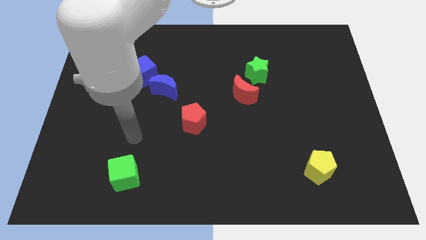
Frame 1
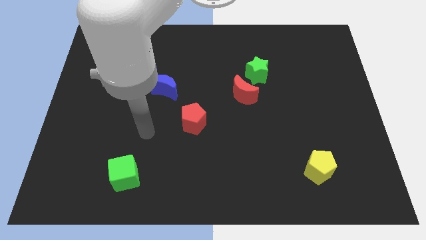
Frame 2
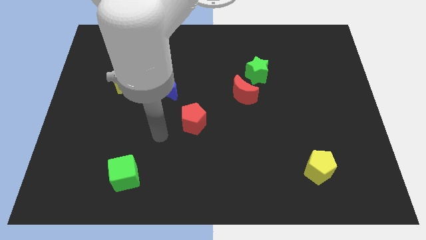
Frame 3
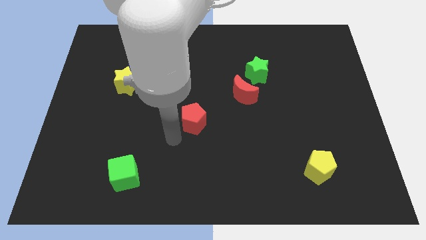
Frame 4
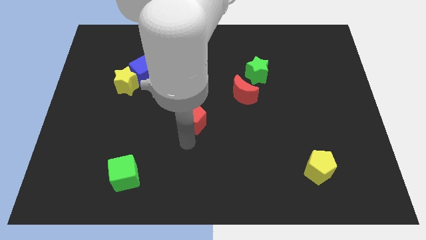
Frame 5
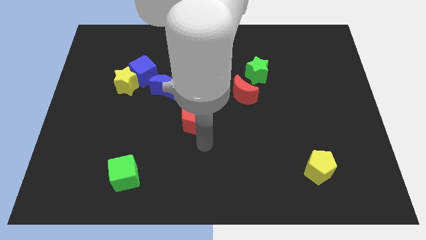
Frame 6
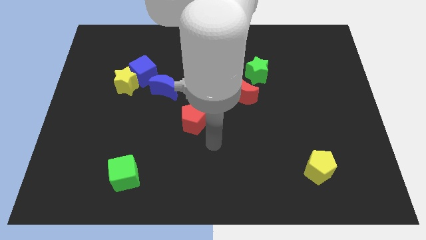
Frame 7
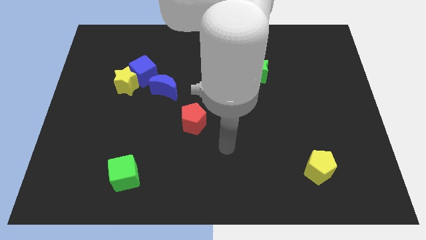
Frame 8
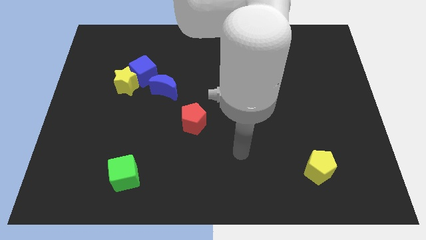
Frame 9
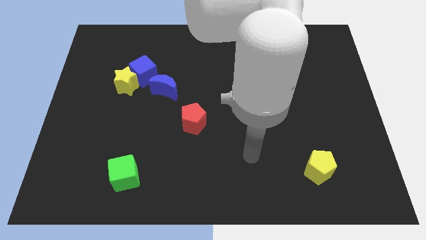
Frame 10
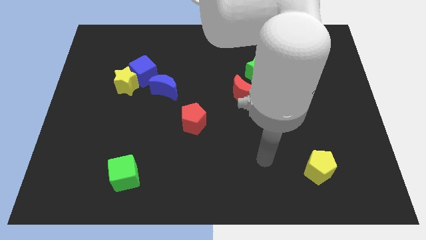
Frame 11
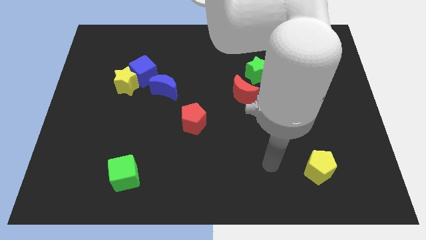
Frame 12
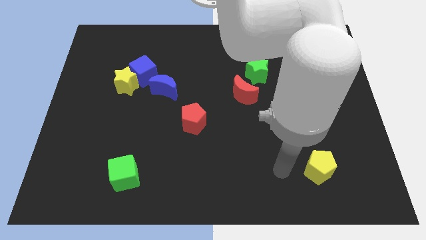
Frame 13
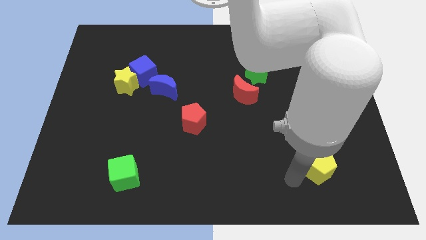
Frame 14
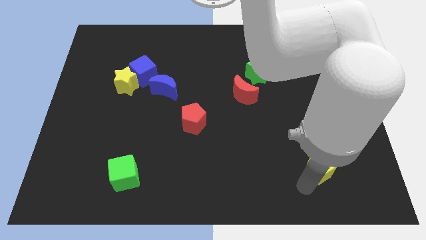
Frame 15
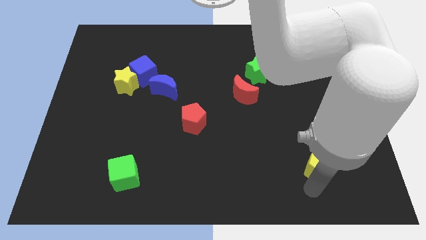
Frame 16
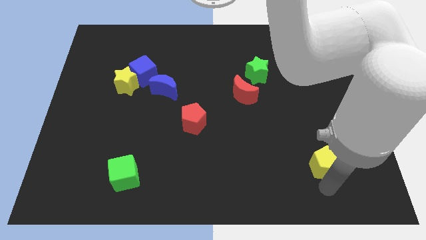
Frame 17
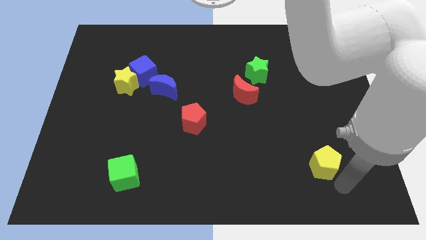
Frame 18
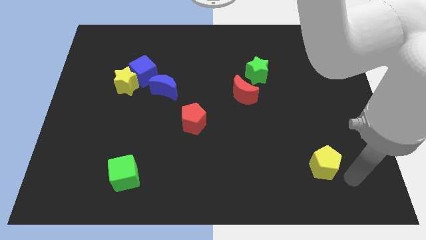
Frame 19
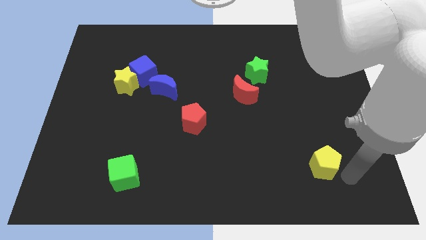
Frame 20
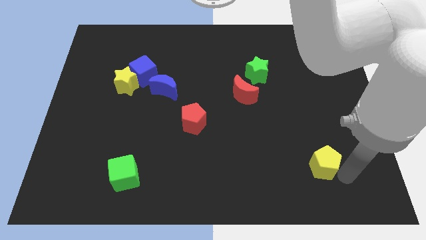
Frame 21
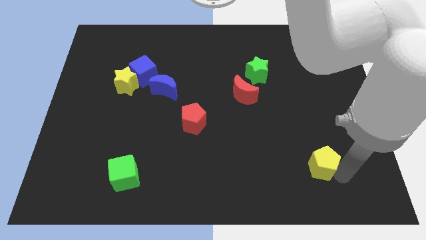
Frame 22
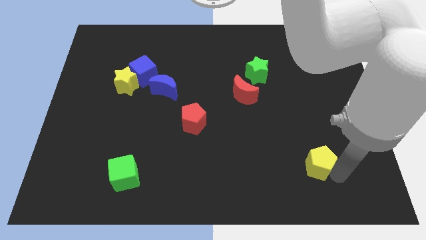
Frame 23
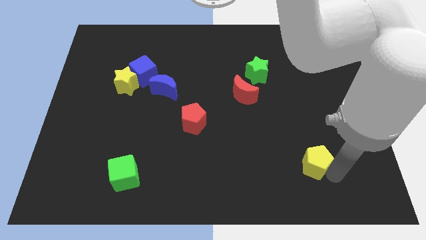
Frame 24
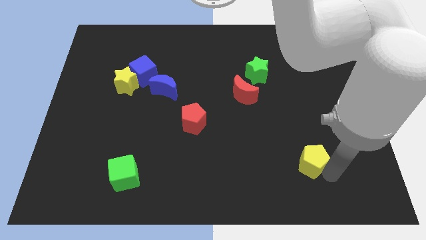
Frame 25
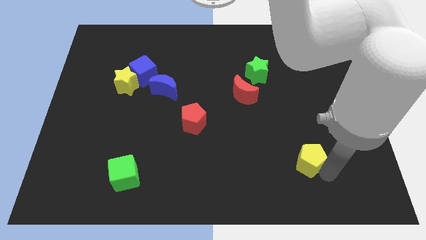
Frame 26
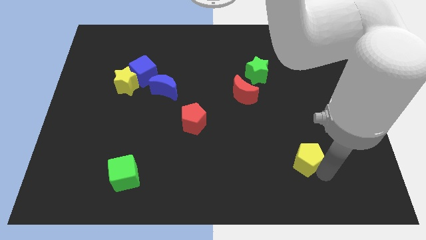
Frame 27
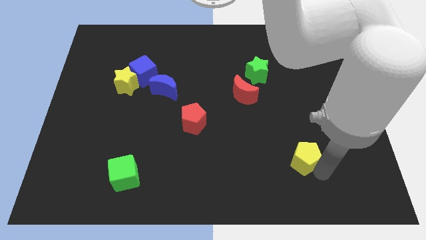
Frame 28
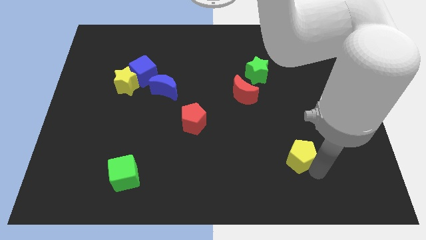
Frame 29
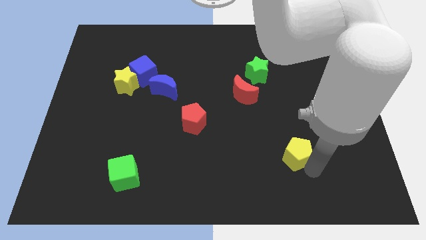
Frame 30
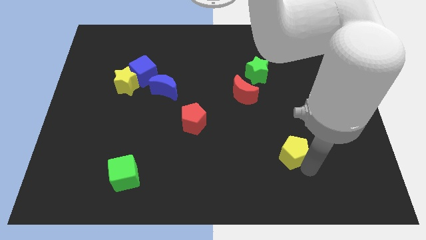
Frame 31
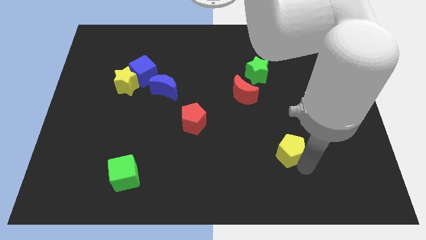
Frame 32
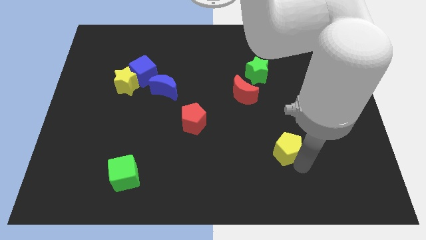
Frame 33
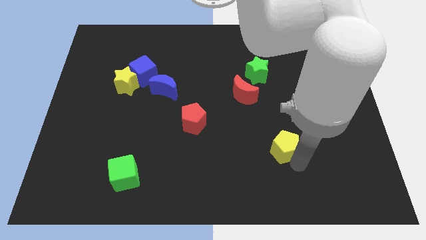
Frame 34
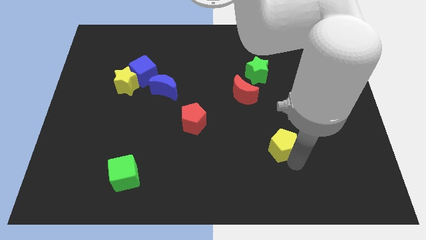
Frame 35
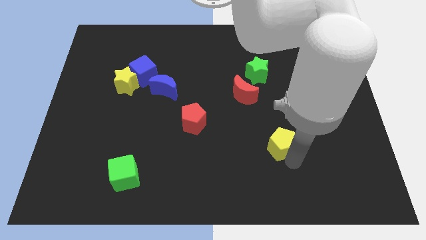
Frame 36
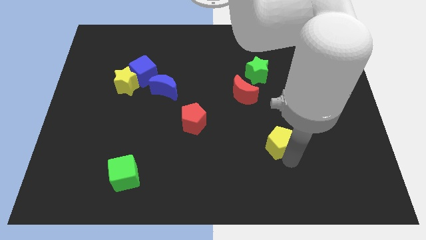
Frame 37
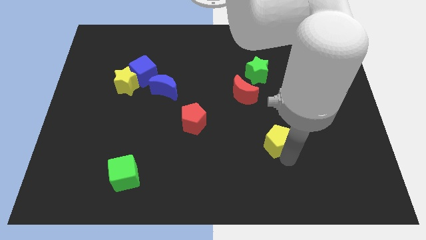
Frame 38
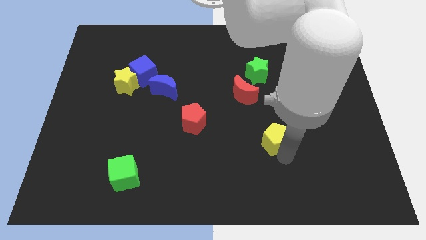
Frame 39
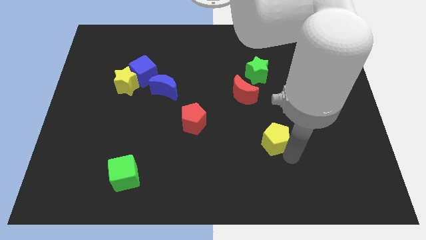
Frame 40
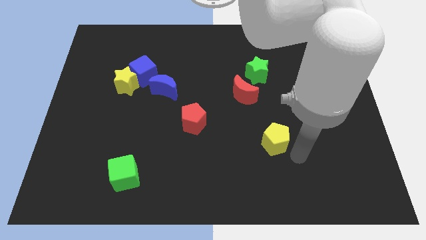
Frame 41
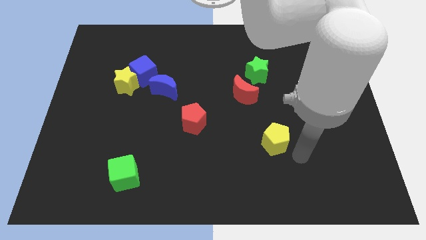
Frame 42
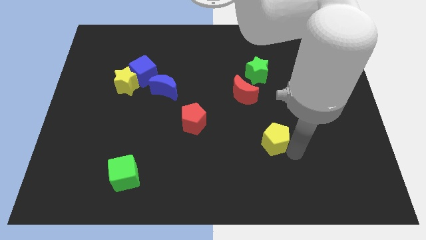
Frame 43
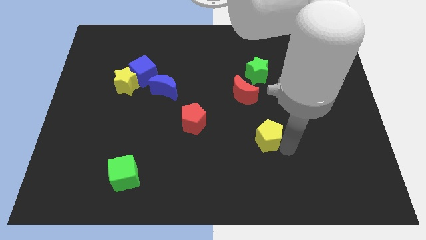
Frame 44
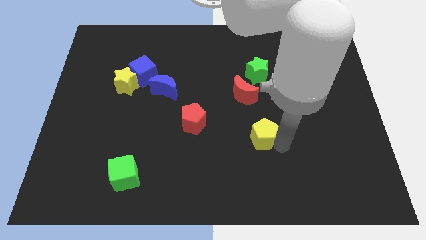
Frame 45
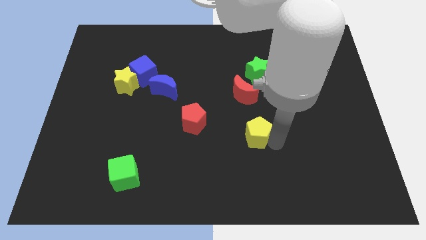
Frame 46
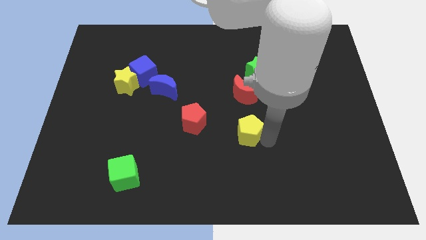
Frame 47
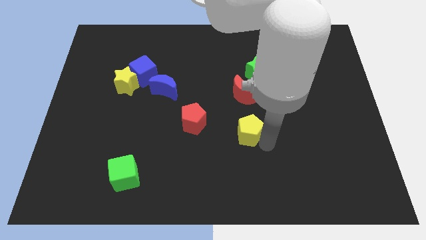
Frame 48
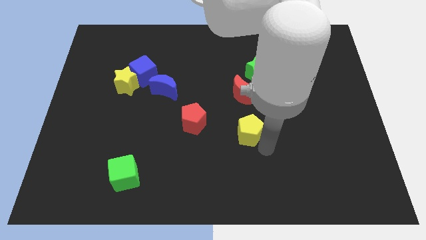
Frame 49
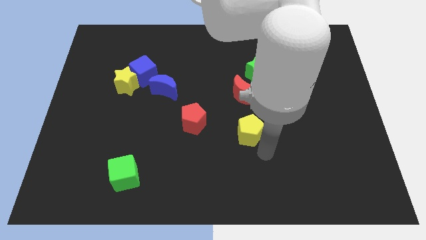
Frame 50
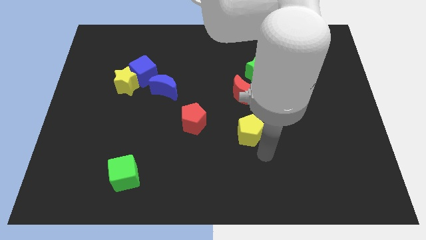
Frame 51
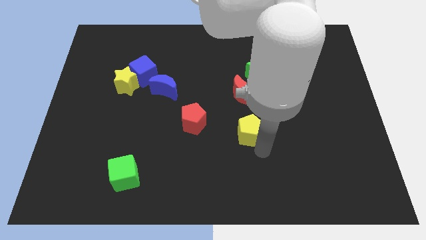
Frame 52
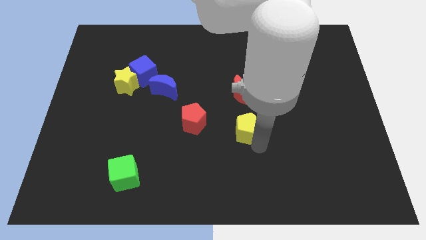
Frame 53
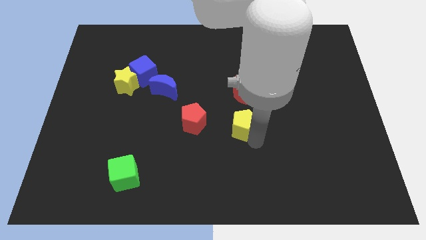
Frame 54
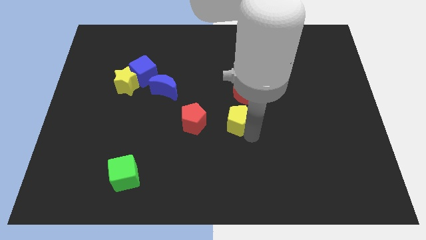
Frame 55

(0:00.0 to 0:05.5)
push the yellow pentagon diagonally down and to the left of the red moon

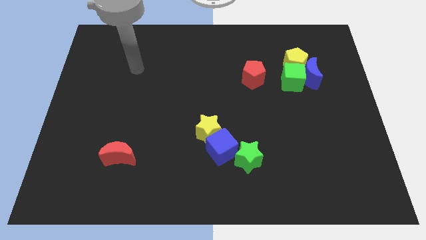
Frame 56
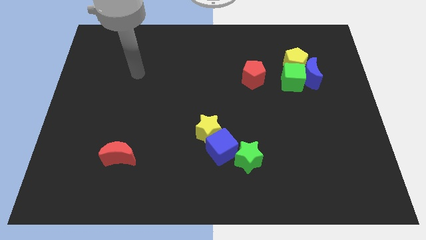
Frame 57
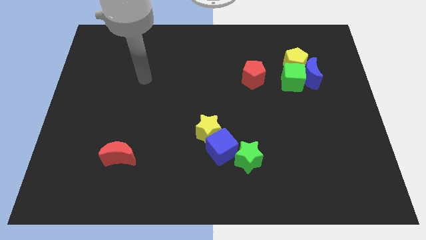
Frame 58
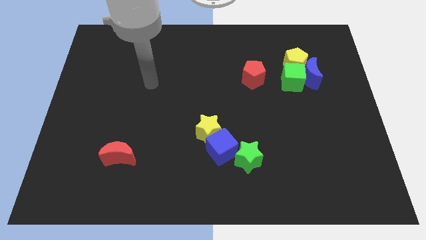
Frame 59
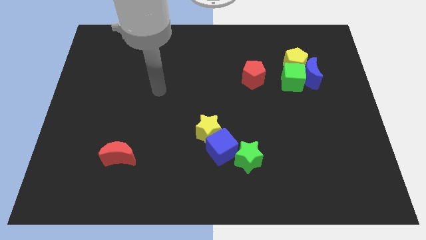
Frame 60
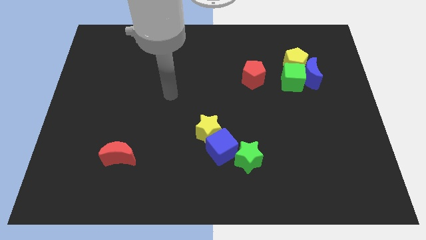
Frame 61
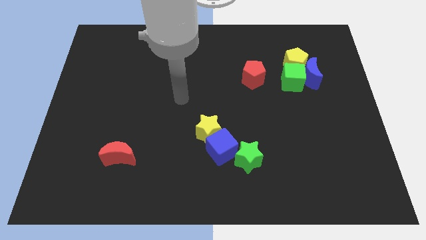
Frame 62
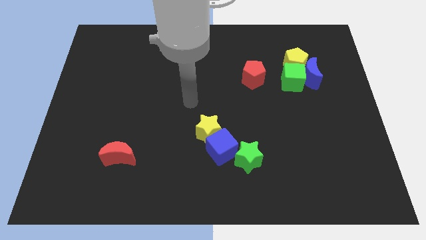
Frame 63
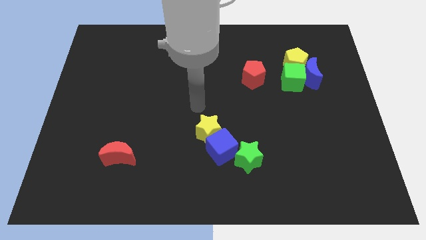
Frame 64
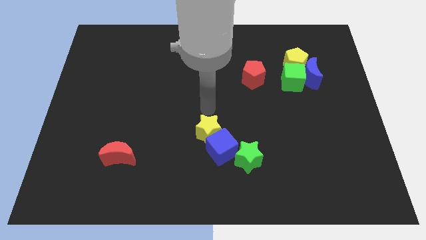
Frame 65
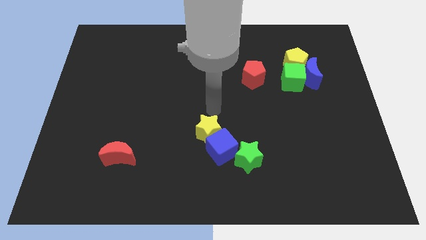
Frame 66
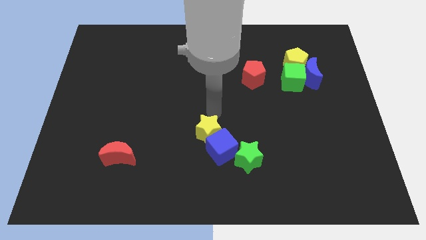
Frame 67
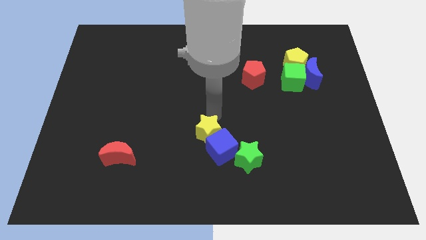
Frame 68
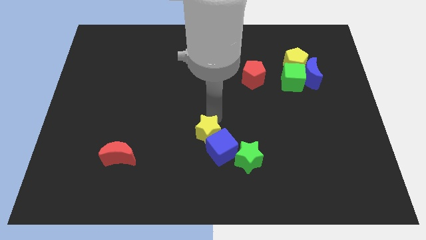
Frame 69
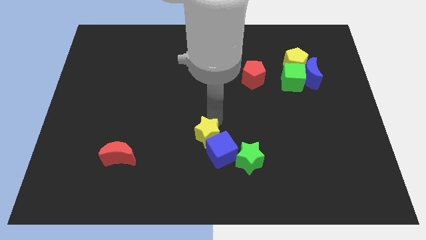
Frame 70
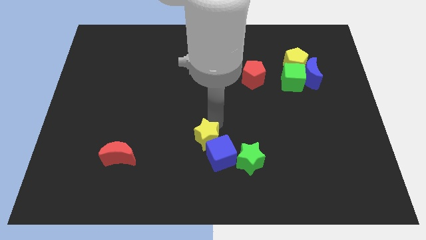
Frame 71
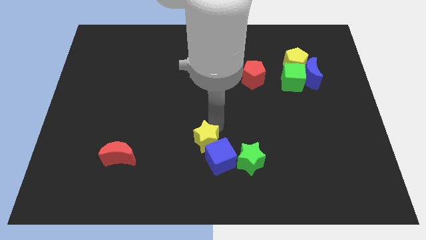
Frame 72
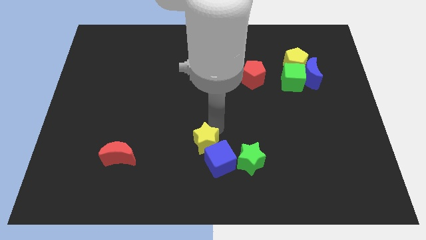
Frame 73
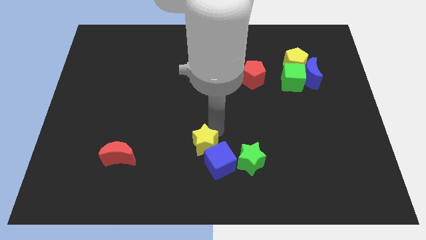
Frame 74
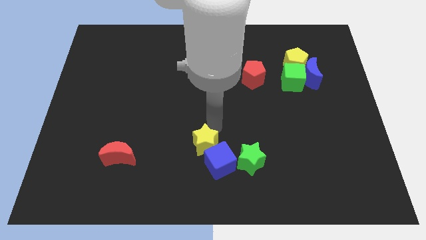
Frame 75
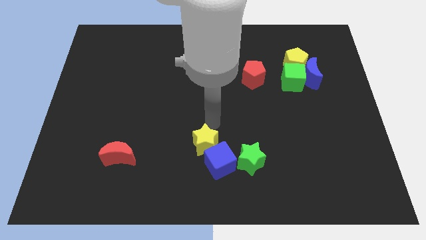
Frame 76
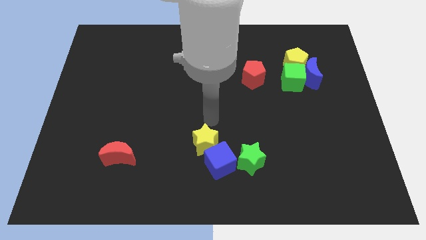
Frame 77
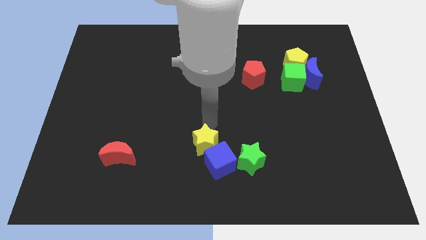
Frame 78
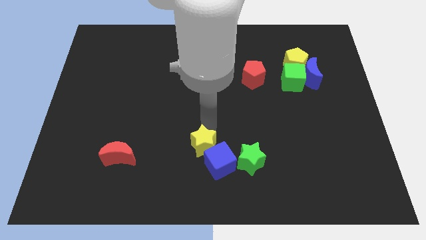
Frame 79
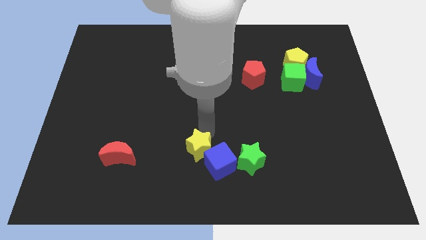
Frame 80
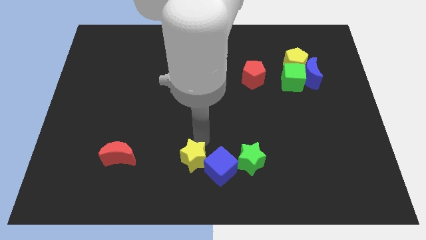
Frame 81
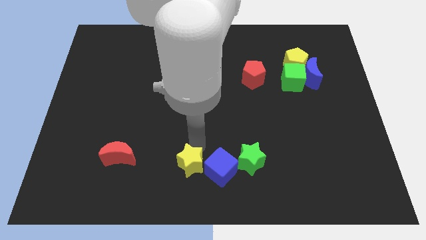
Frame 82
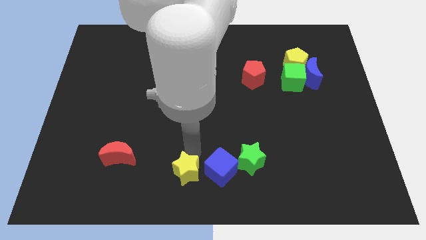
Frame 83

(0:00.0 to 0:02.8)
put the yellow star to the bottom left of the blue cube
